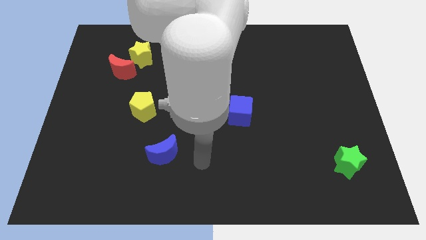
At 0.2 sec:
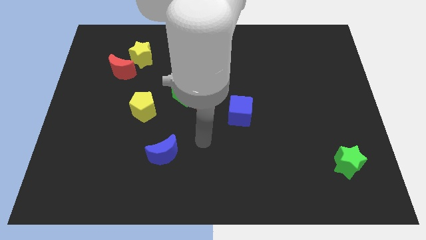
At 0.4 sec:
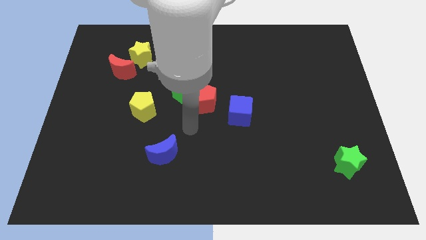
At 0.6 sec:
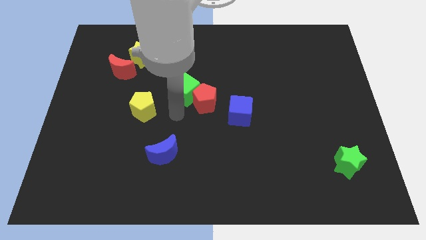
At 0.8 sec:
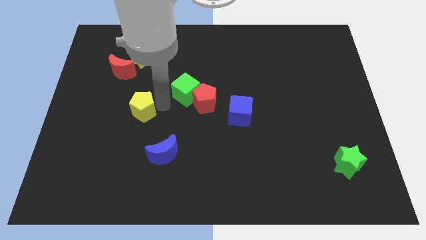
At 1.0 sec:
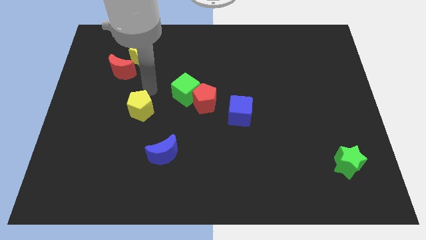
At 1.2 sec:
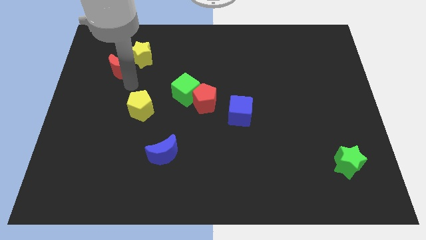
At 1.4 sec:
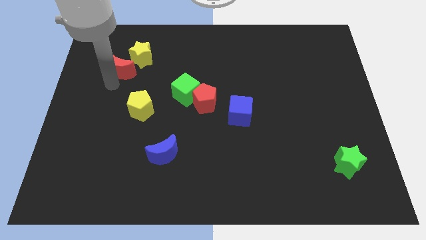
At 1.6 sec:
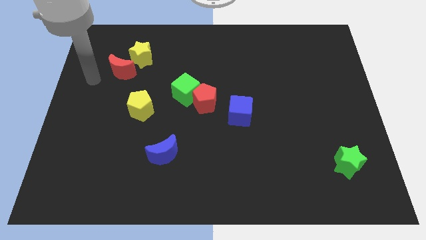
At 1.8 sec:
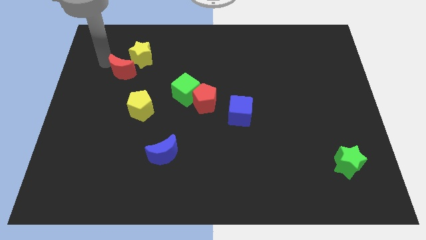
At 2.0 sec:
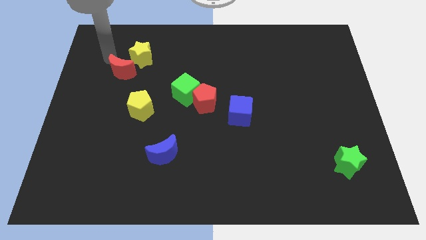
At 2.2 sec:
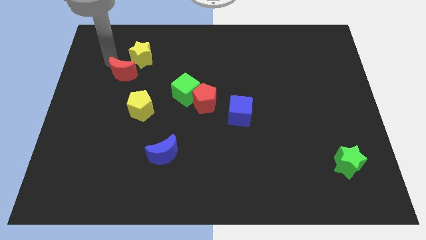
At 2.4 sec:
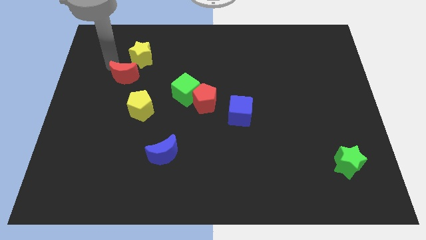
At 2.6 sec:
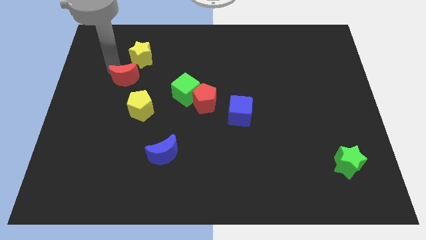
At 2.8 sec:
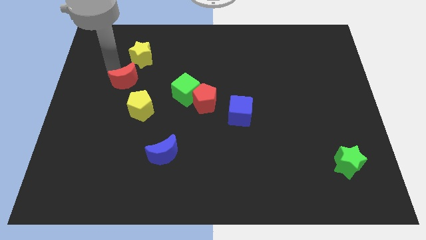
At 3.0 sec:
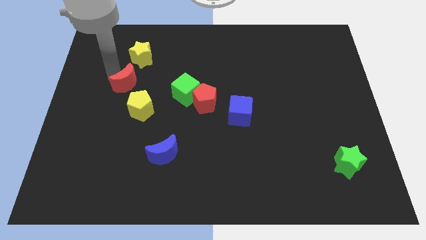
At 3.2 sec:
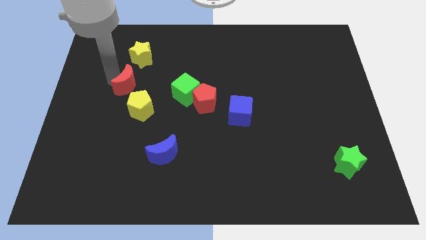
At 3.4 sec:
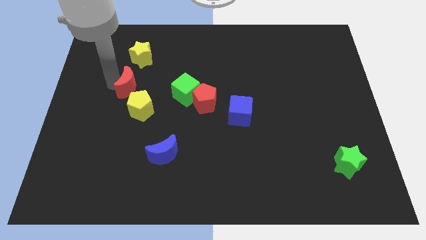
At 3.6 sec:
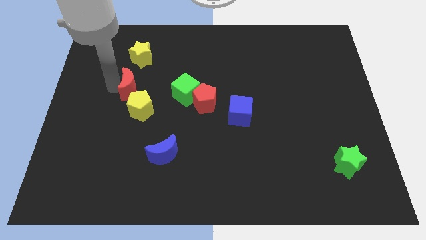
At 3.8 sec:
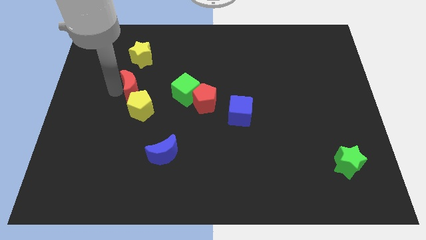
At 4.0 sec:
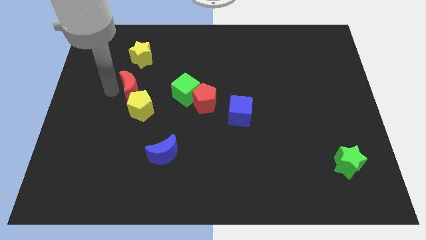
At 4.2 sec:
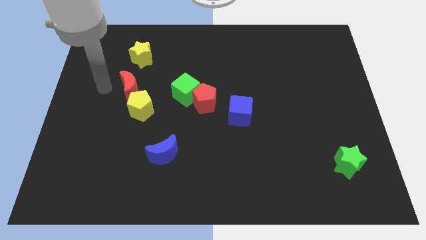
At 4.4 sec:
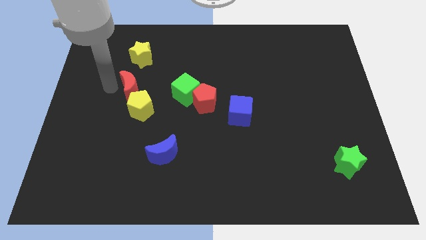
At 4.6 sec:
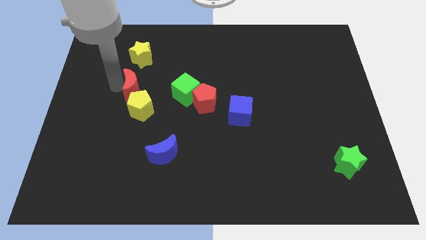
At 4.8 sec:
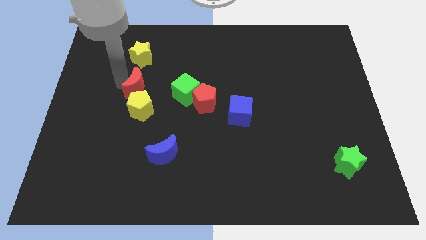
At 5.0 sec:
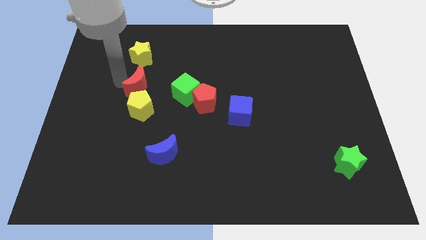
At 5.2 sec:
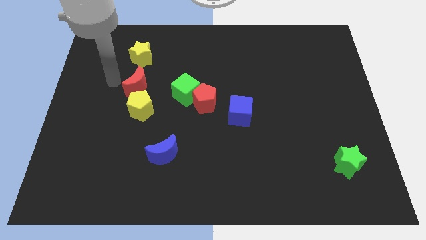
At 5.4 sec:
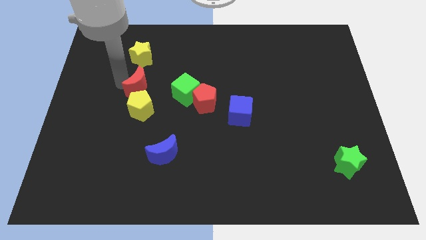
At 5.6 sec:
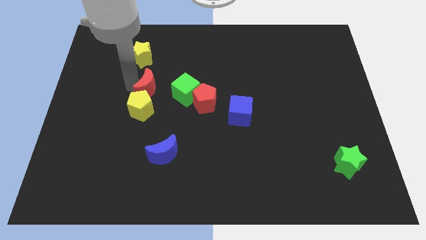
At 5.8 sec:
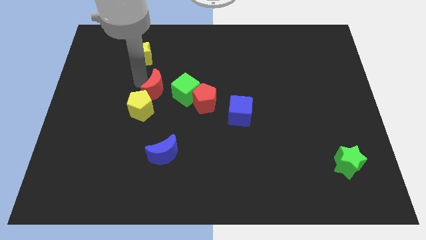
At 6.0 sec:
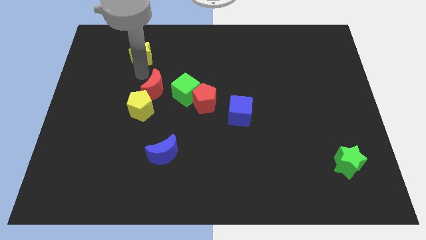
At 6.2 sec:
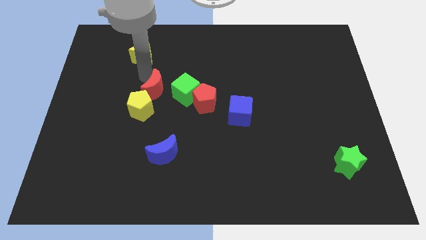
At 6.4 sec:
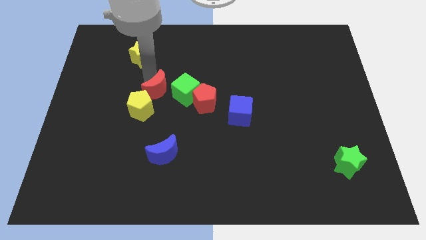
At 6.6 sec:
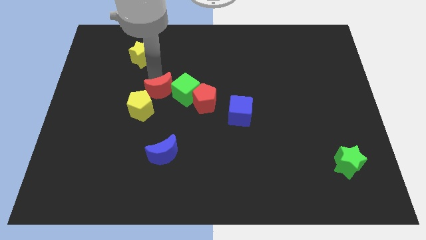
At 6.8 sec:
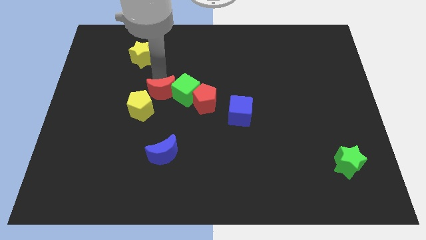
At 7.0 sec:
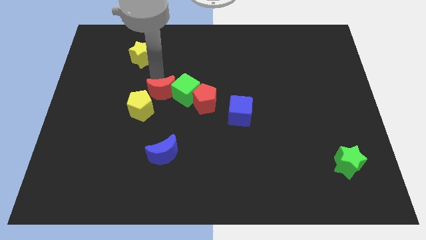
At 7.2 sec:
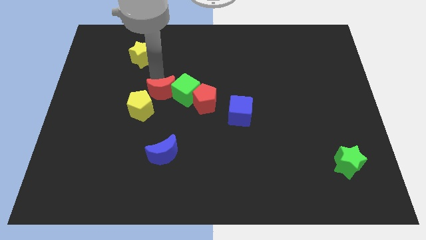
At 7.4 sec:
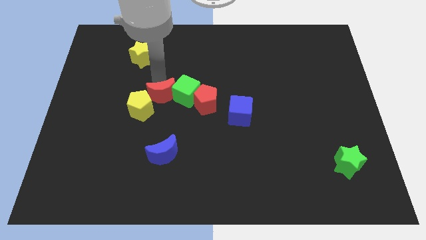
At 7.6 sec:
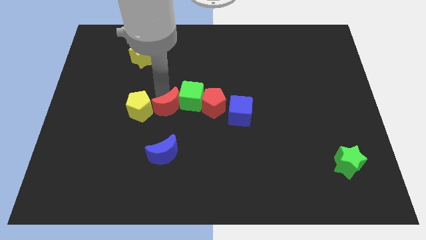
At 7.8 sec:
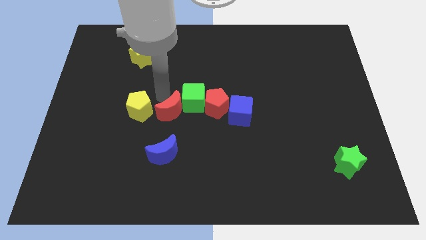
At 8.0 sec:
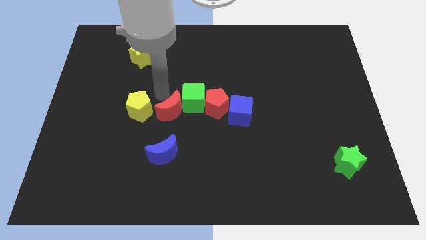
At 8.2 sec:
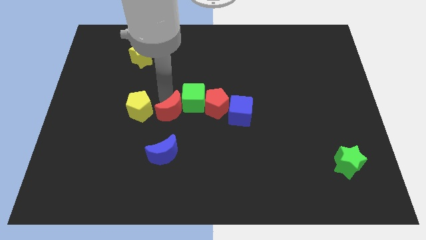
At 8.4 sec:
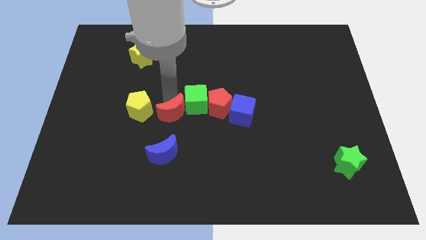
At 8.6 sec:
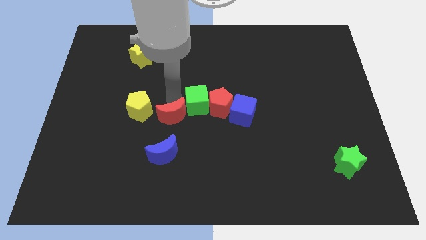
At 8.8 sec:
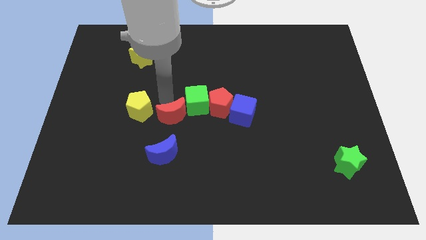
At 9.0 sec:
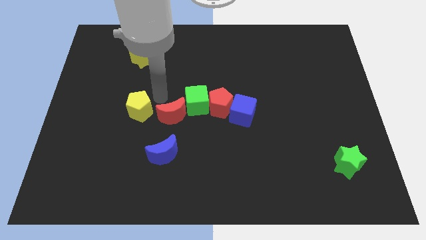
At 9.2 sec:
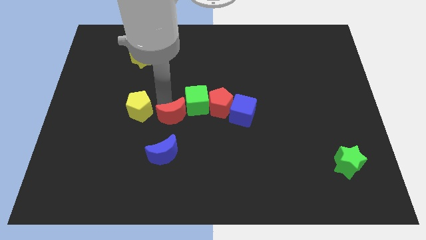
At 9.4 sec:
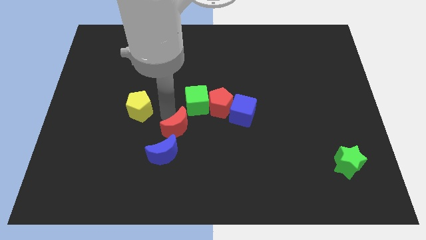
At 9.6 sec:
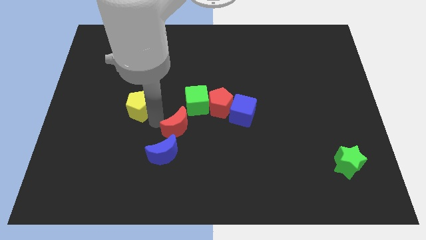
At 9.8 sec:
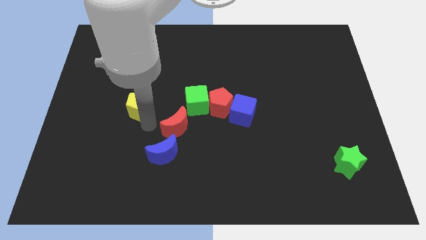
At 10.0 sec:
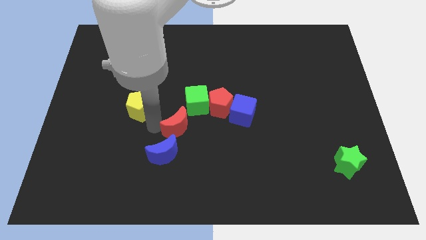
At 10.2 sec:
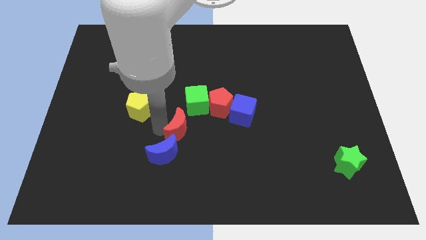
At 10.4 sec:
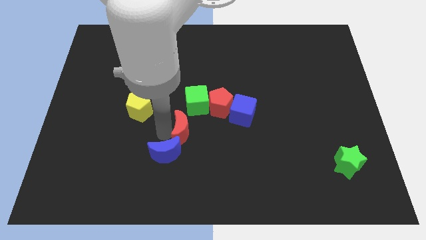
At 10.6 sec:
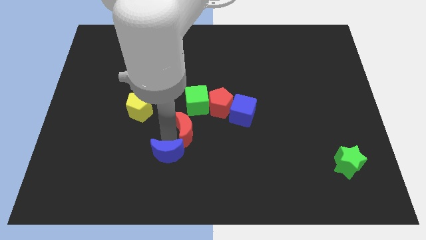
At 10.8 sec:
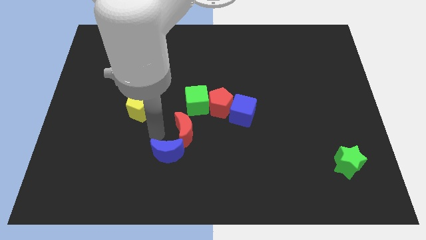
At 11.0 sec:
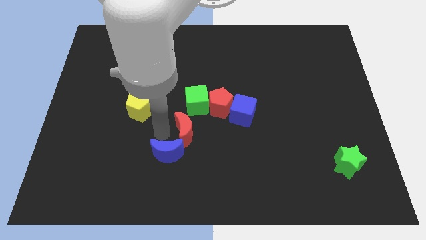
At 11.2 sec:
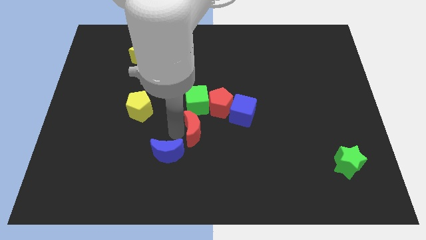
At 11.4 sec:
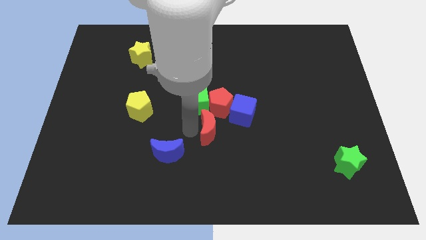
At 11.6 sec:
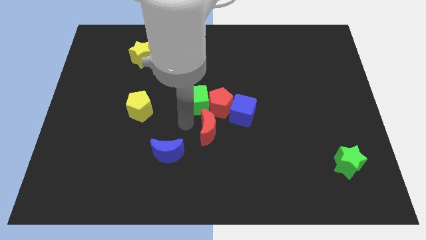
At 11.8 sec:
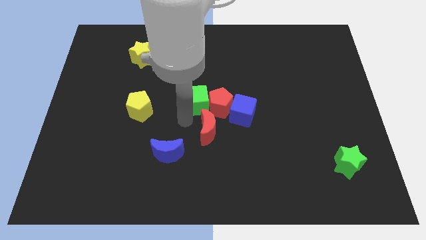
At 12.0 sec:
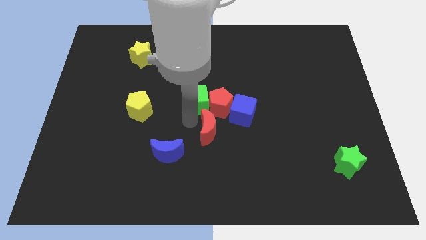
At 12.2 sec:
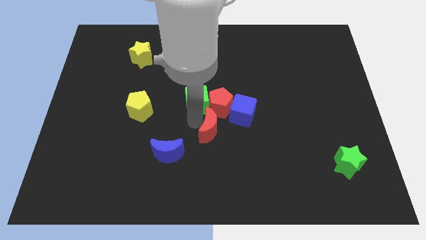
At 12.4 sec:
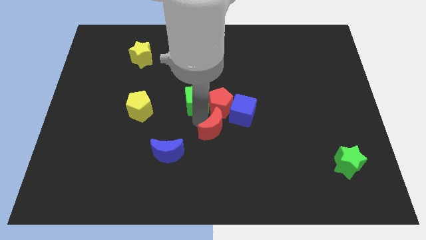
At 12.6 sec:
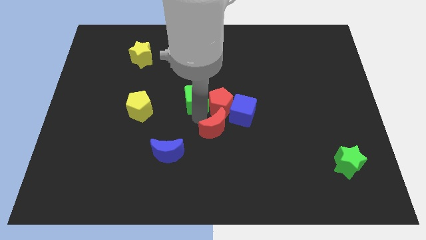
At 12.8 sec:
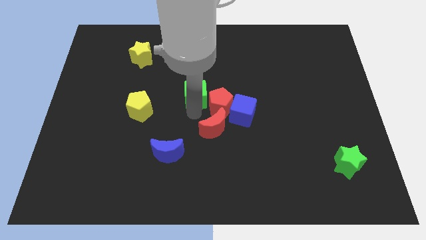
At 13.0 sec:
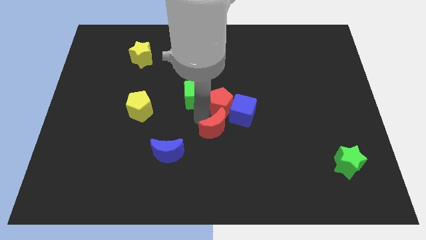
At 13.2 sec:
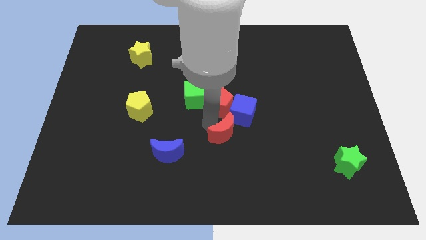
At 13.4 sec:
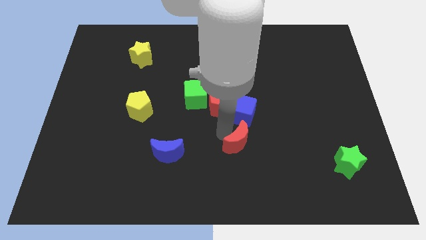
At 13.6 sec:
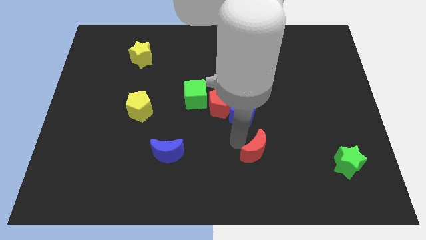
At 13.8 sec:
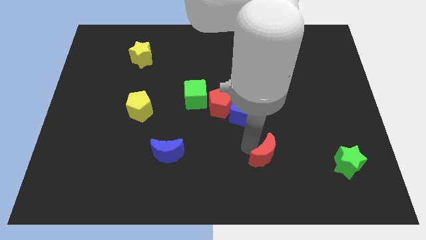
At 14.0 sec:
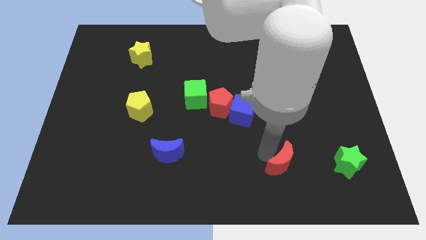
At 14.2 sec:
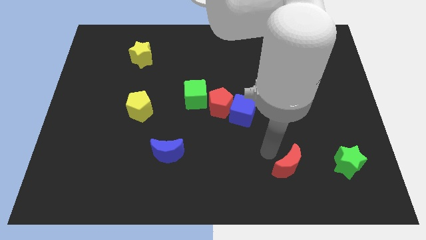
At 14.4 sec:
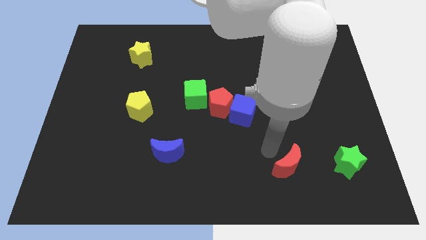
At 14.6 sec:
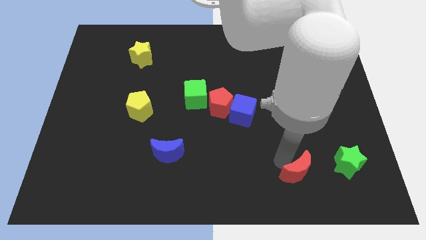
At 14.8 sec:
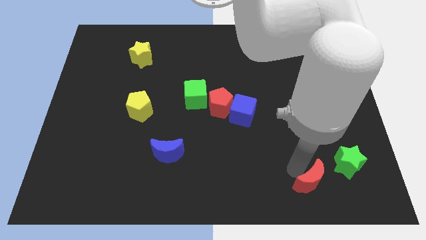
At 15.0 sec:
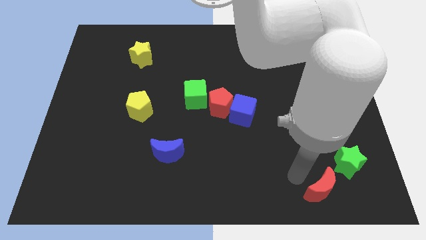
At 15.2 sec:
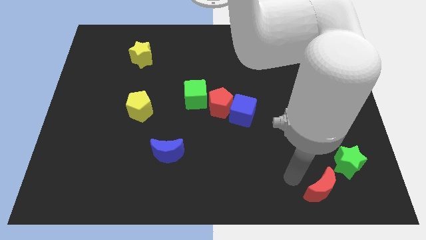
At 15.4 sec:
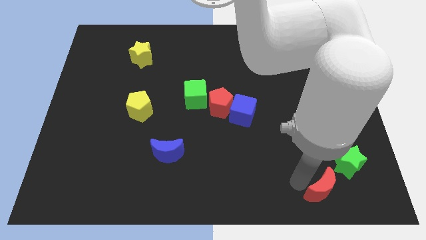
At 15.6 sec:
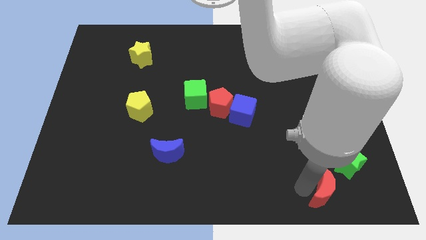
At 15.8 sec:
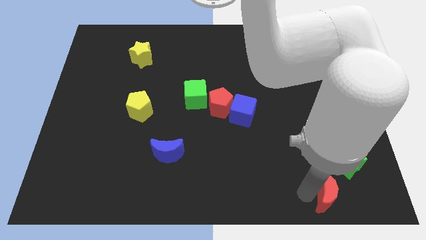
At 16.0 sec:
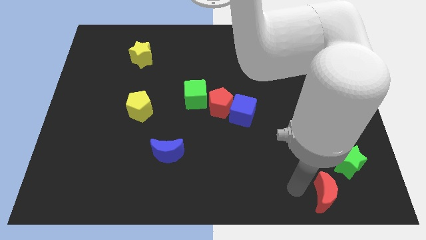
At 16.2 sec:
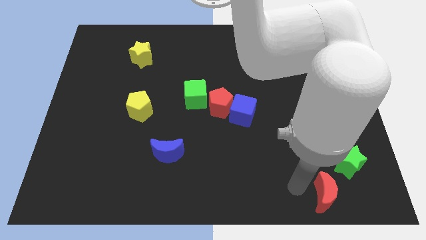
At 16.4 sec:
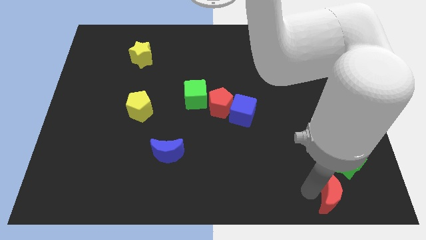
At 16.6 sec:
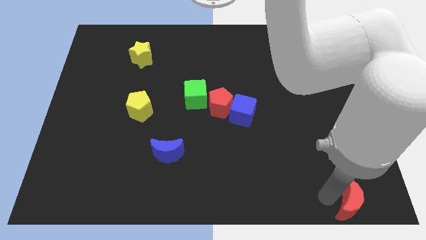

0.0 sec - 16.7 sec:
push the red moon to the lower right corner
